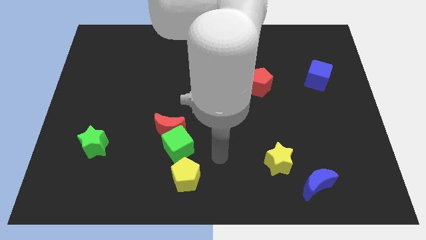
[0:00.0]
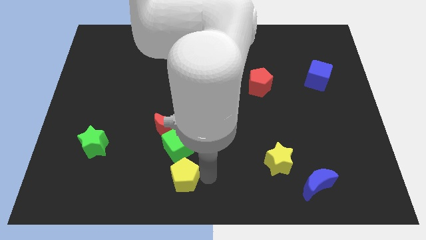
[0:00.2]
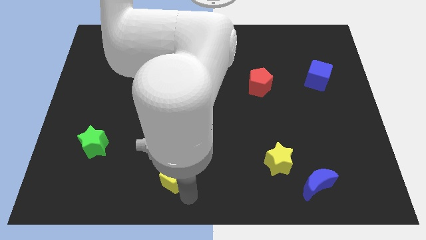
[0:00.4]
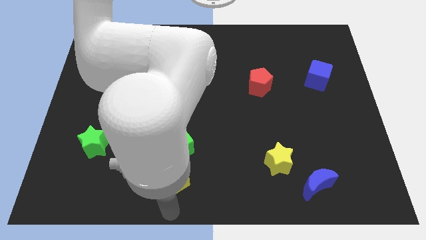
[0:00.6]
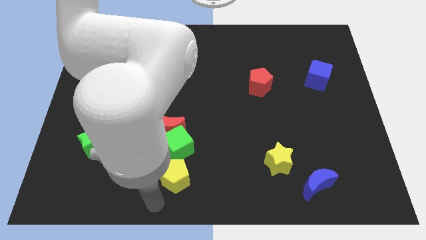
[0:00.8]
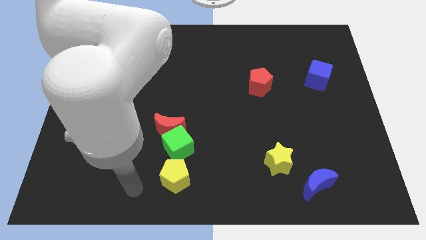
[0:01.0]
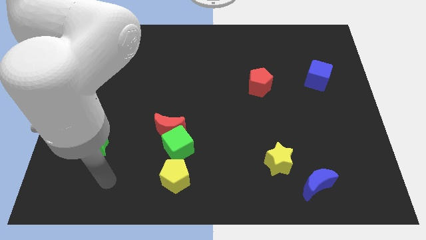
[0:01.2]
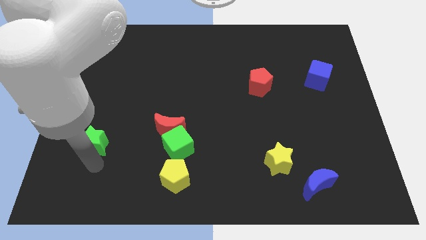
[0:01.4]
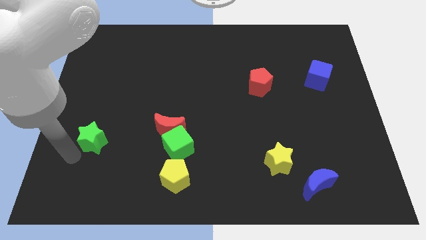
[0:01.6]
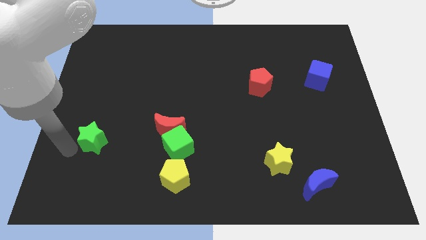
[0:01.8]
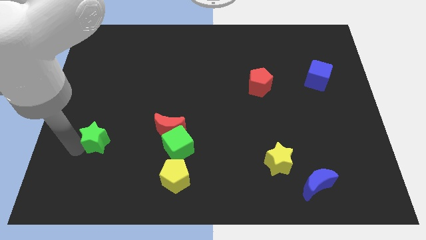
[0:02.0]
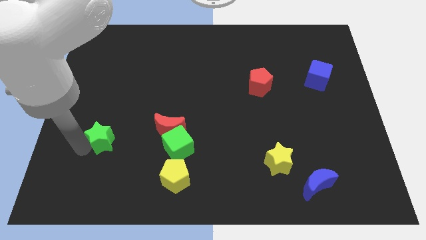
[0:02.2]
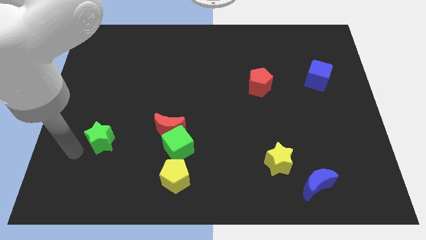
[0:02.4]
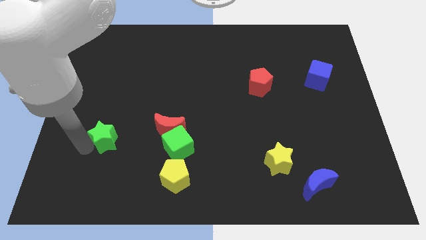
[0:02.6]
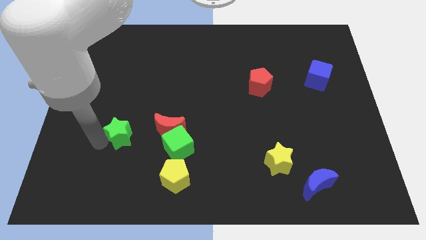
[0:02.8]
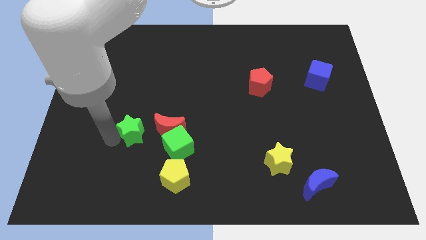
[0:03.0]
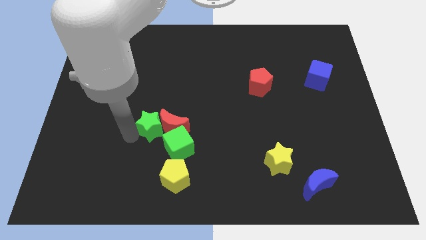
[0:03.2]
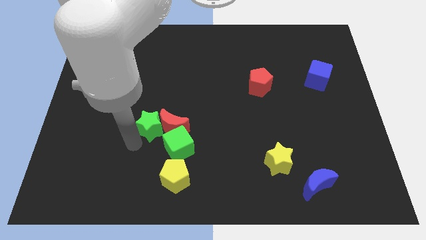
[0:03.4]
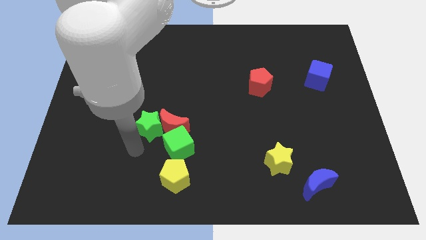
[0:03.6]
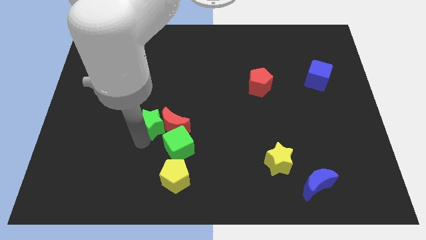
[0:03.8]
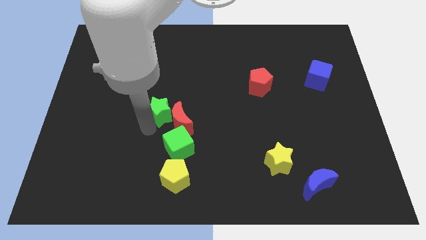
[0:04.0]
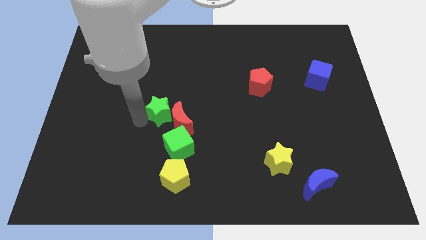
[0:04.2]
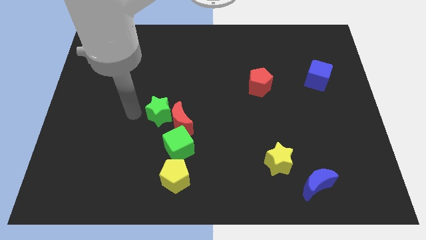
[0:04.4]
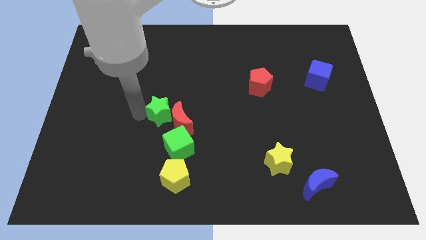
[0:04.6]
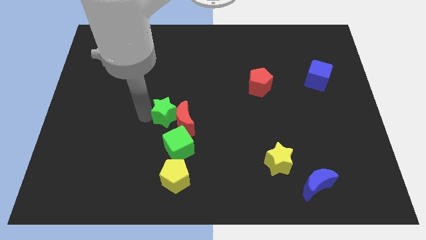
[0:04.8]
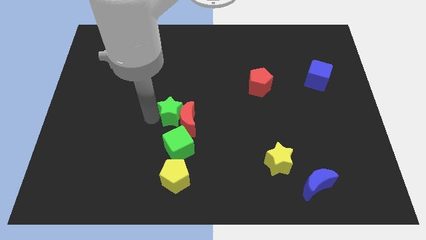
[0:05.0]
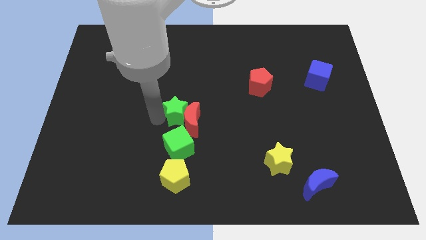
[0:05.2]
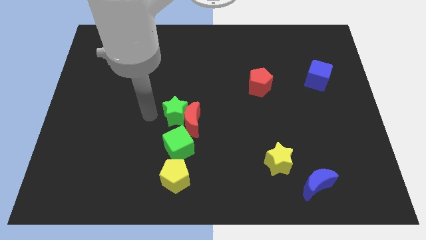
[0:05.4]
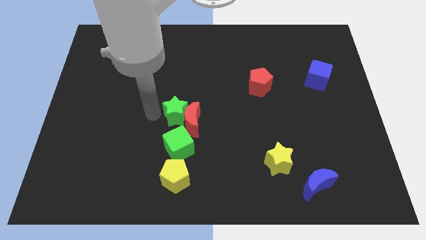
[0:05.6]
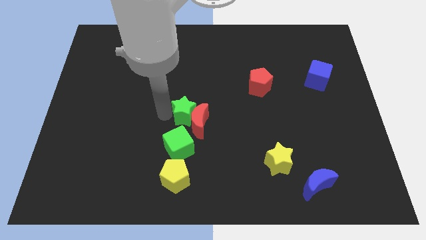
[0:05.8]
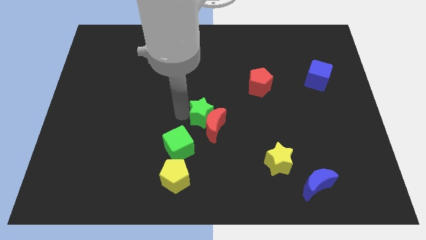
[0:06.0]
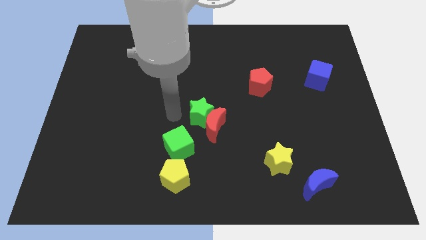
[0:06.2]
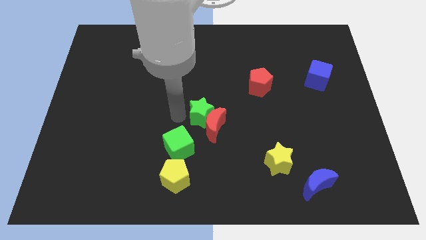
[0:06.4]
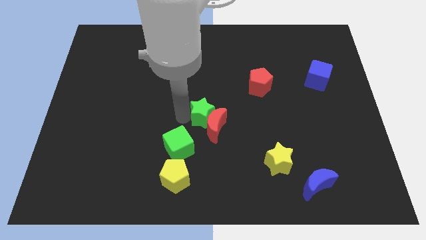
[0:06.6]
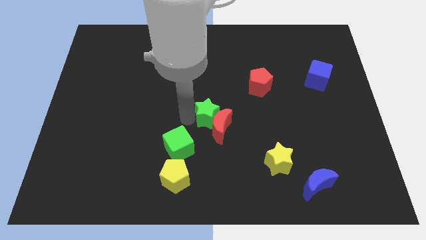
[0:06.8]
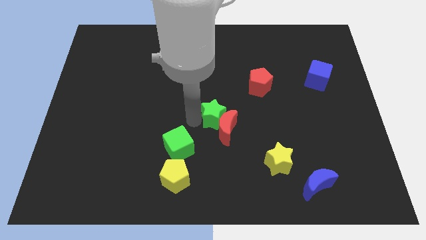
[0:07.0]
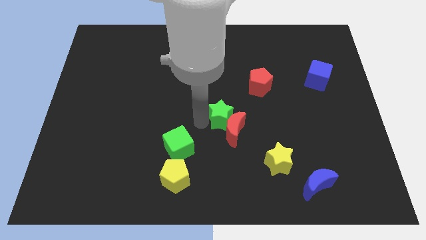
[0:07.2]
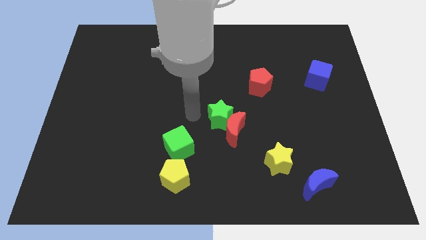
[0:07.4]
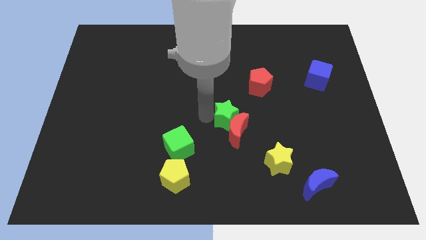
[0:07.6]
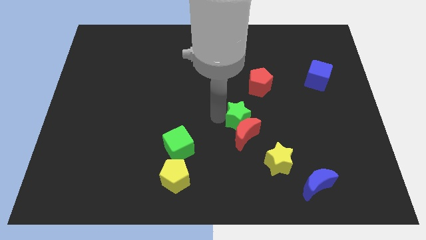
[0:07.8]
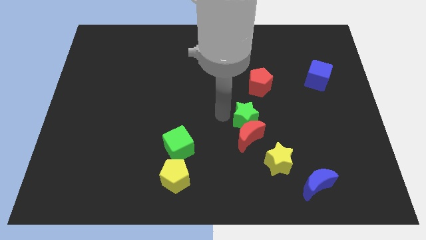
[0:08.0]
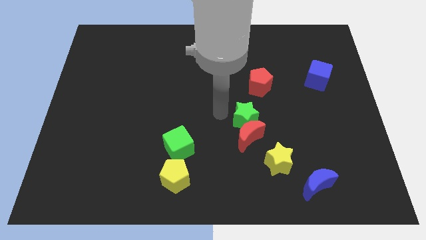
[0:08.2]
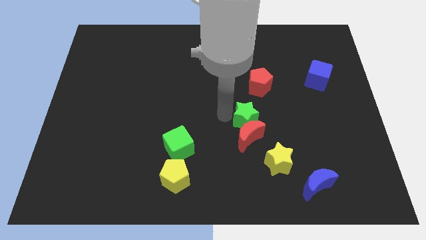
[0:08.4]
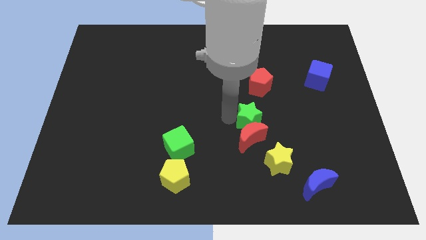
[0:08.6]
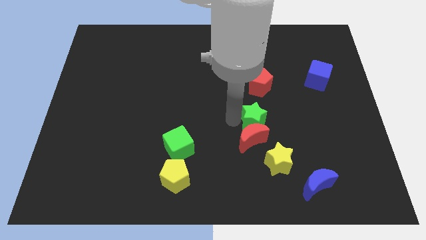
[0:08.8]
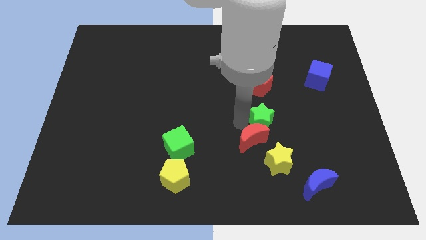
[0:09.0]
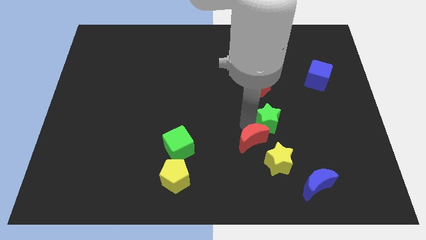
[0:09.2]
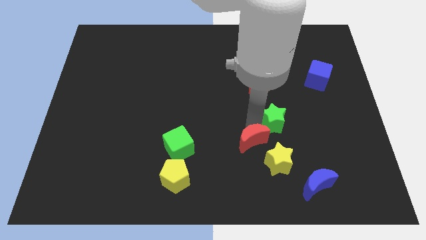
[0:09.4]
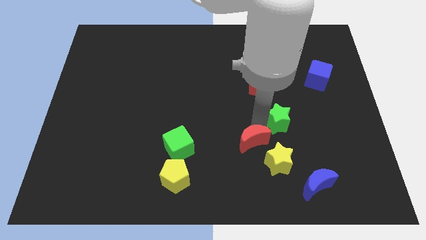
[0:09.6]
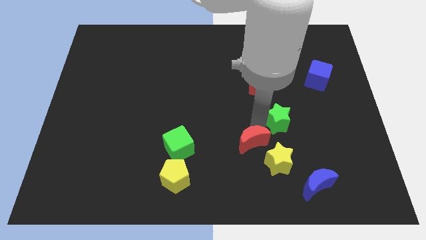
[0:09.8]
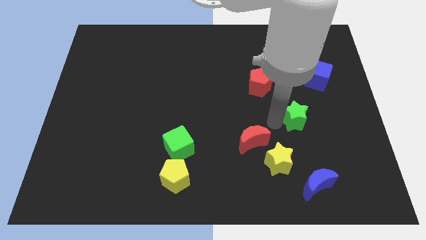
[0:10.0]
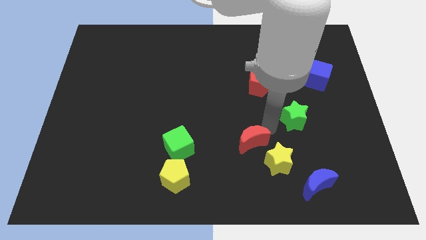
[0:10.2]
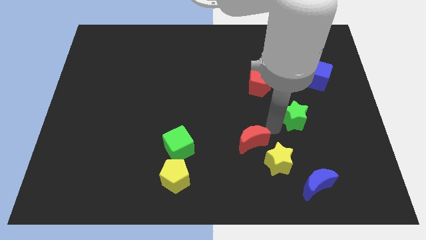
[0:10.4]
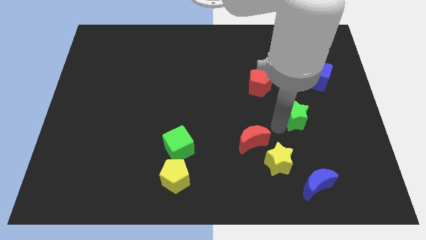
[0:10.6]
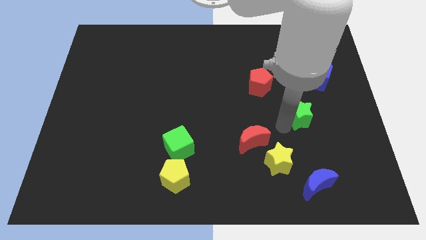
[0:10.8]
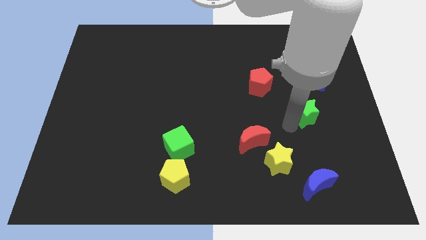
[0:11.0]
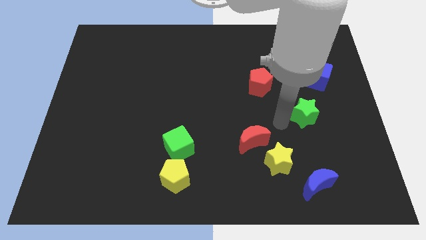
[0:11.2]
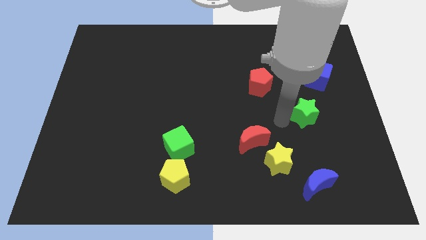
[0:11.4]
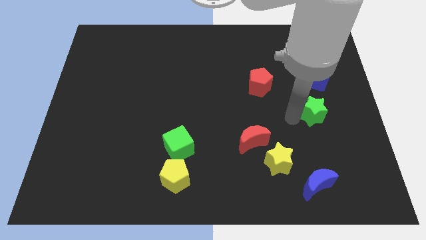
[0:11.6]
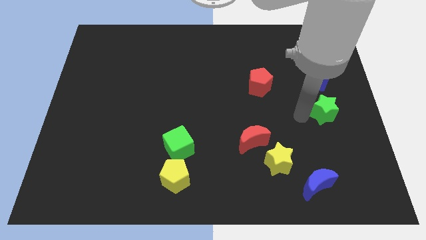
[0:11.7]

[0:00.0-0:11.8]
push the green star to the center right

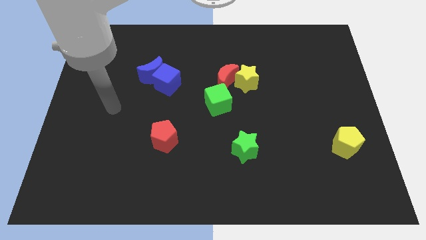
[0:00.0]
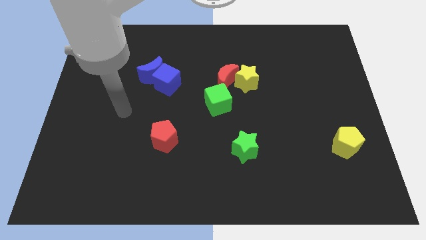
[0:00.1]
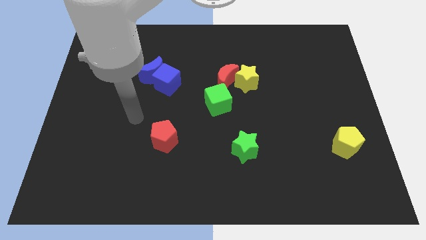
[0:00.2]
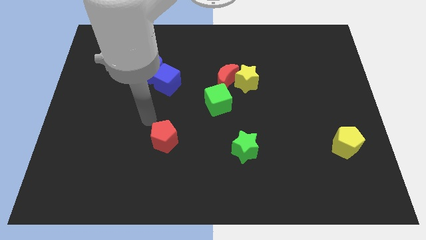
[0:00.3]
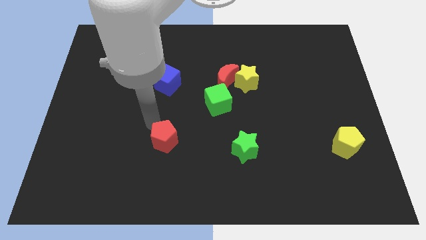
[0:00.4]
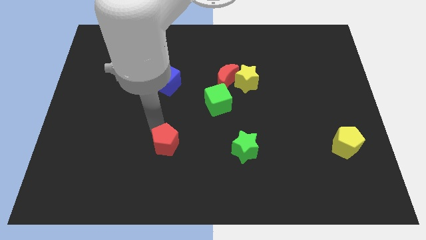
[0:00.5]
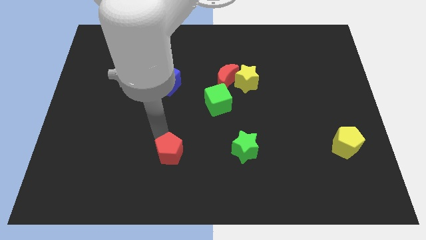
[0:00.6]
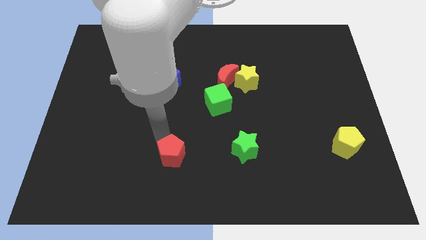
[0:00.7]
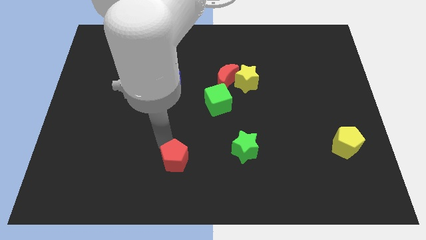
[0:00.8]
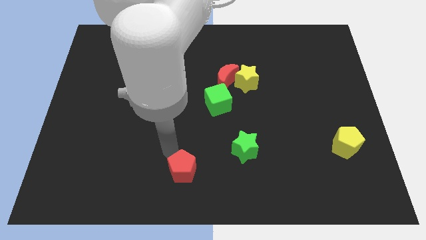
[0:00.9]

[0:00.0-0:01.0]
move the red pentagon to the bottom side
